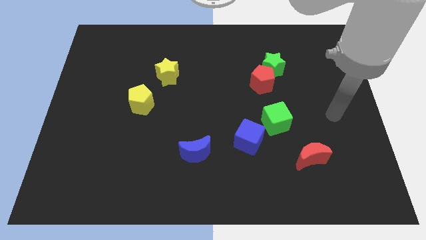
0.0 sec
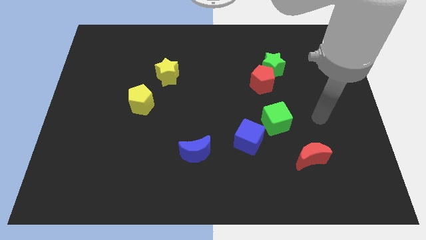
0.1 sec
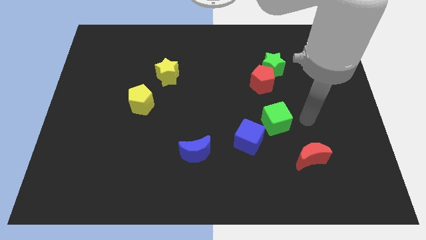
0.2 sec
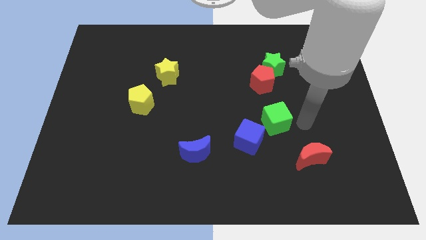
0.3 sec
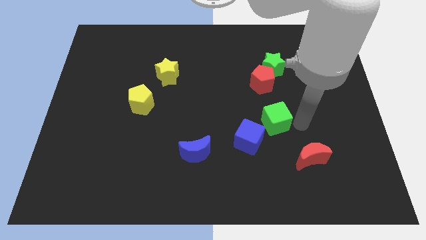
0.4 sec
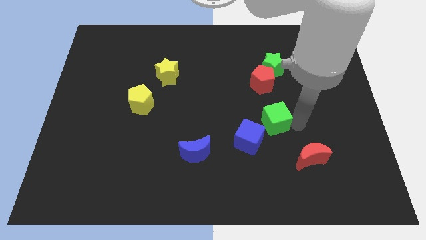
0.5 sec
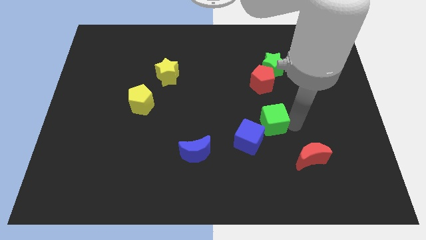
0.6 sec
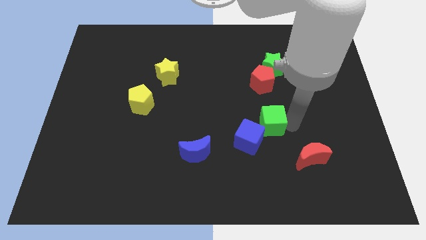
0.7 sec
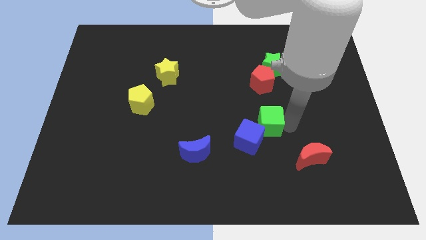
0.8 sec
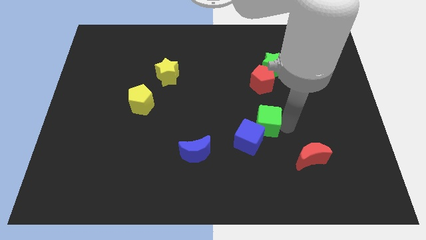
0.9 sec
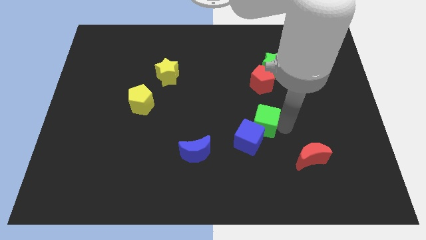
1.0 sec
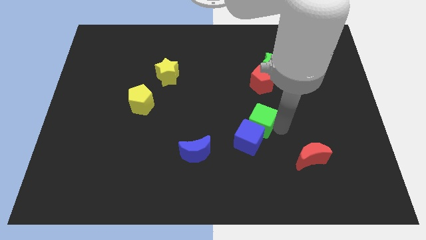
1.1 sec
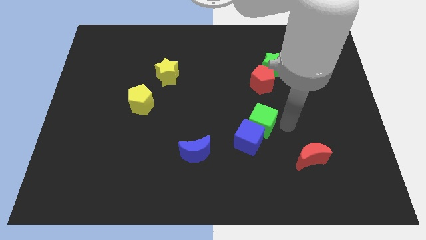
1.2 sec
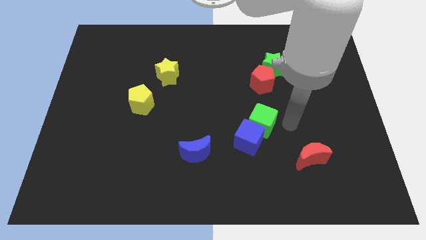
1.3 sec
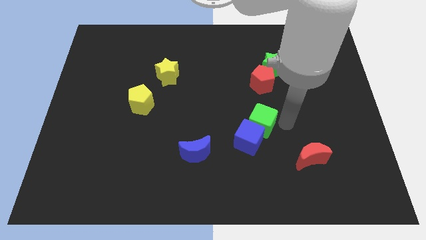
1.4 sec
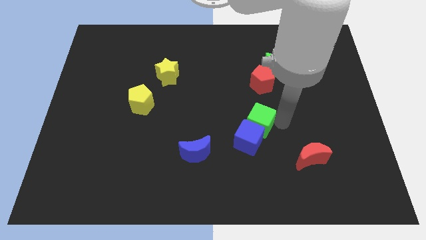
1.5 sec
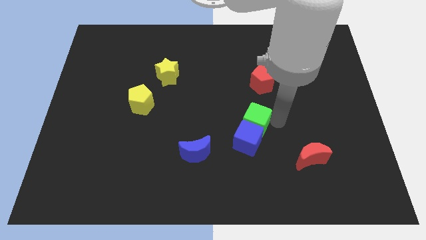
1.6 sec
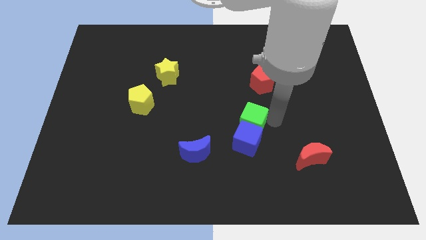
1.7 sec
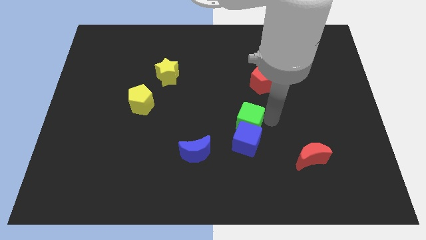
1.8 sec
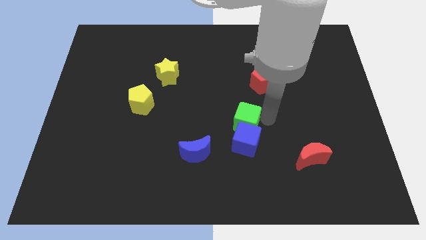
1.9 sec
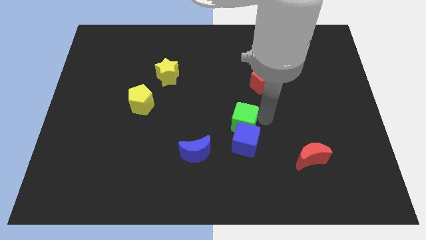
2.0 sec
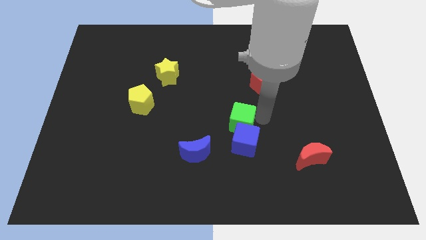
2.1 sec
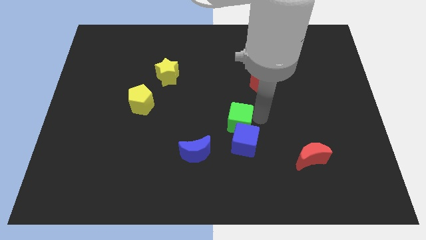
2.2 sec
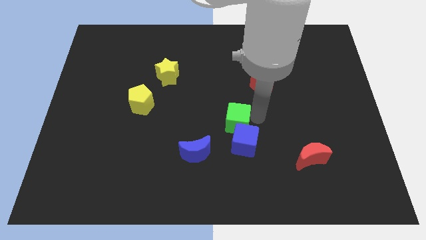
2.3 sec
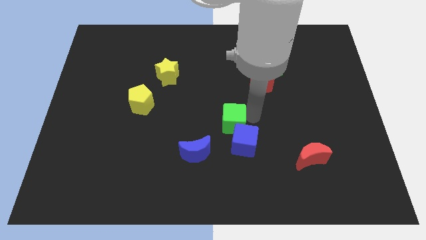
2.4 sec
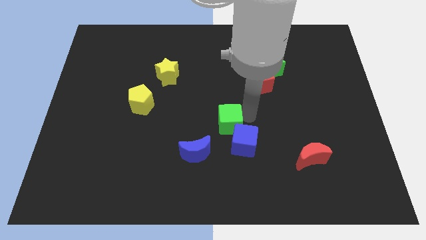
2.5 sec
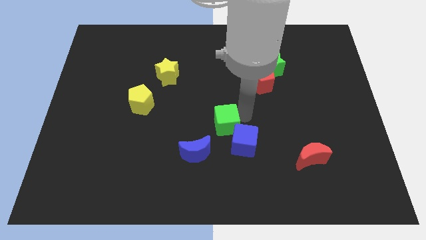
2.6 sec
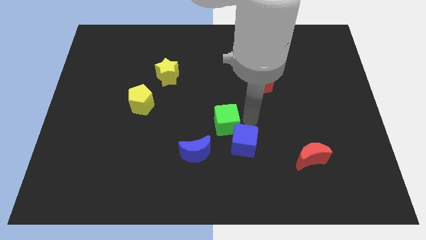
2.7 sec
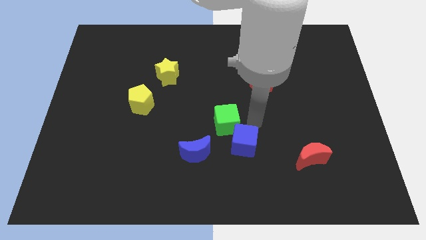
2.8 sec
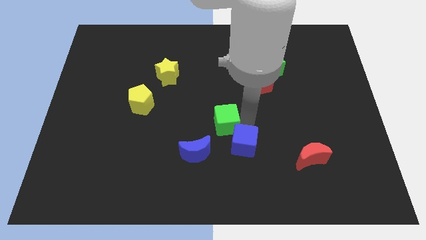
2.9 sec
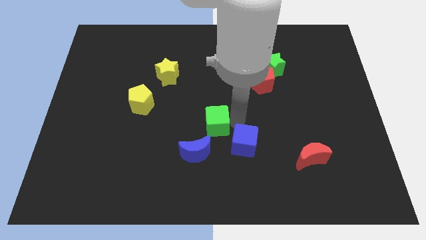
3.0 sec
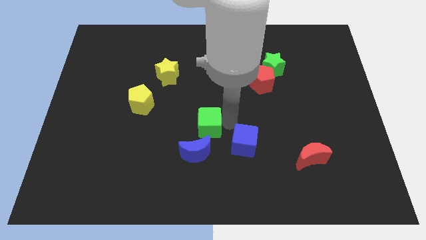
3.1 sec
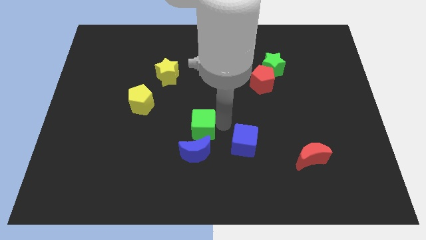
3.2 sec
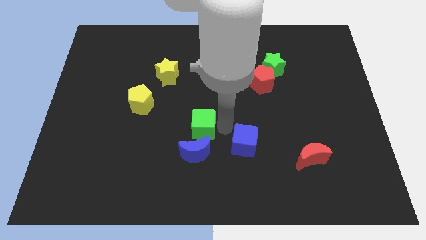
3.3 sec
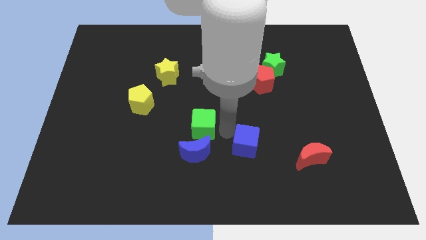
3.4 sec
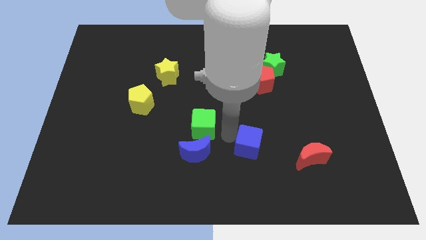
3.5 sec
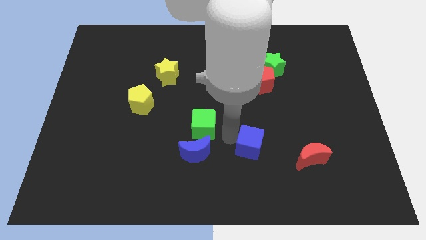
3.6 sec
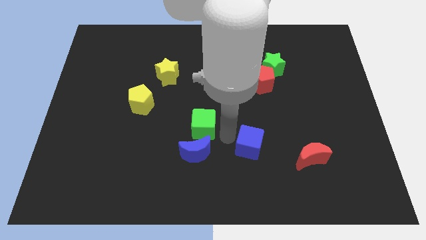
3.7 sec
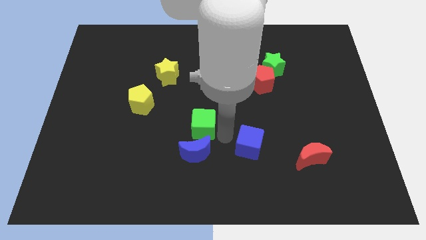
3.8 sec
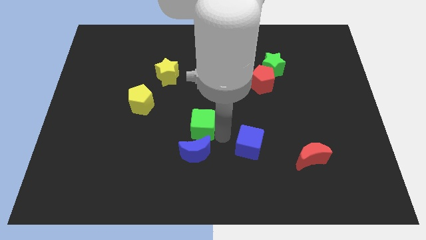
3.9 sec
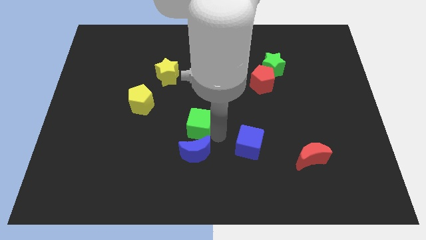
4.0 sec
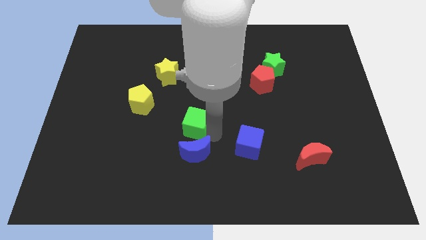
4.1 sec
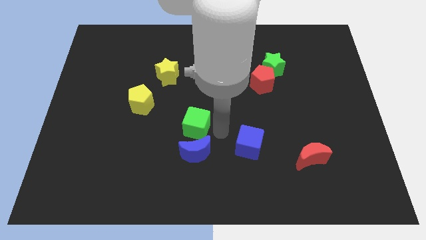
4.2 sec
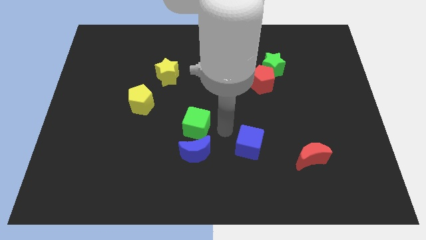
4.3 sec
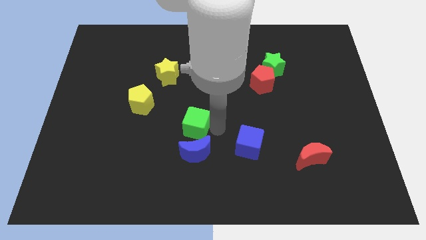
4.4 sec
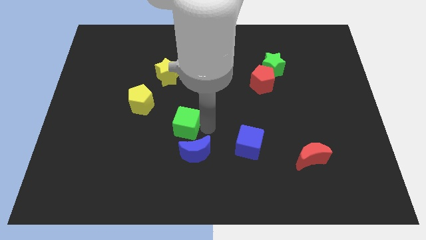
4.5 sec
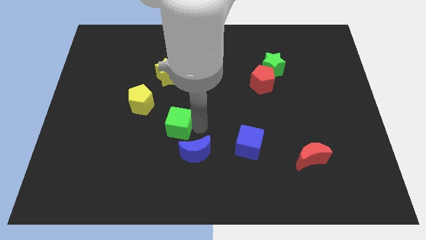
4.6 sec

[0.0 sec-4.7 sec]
move the green cube diagonally down and to the right of the yellow pentagon

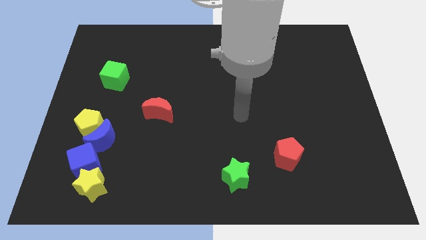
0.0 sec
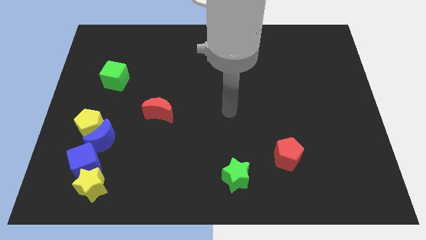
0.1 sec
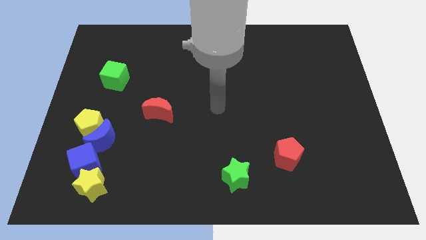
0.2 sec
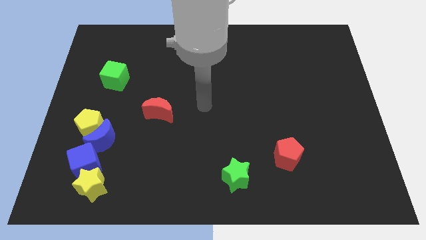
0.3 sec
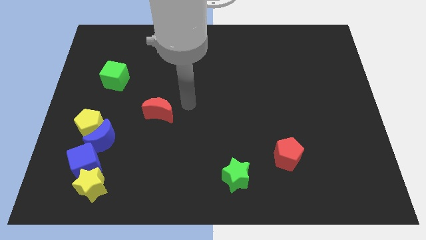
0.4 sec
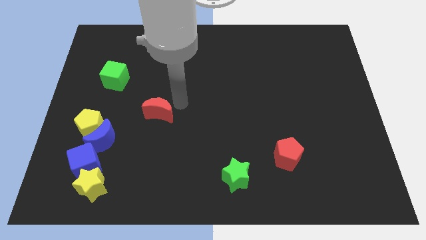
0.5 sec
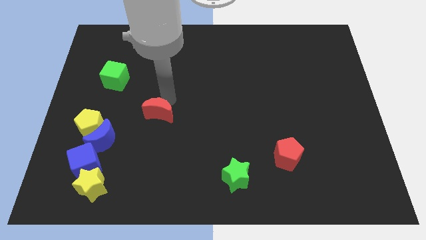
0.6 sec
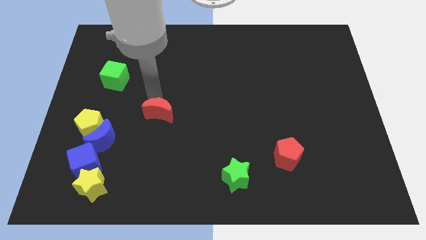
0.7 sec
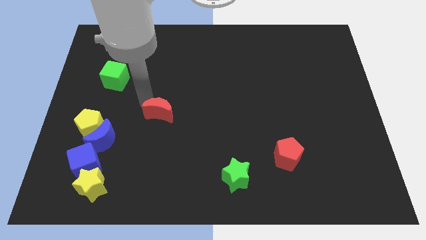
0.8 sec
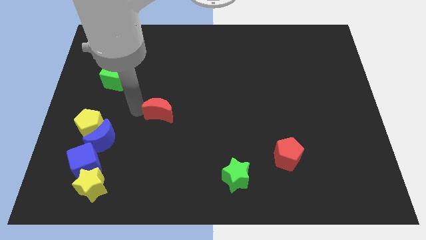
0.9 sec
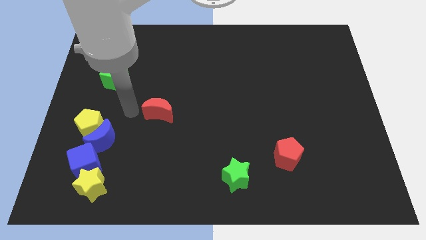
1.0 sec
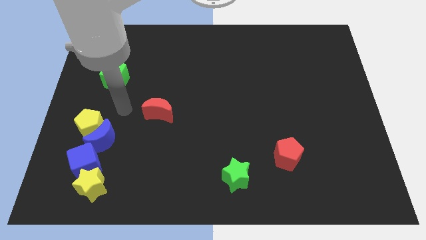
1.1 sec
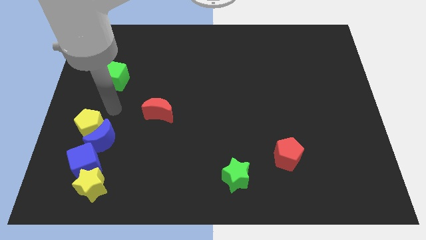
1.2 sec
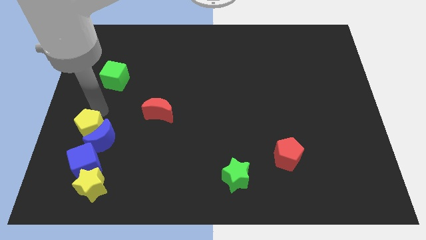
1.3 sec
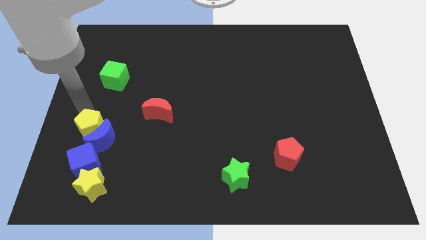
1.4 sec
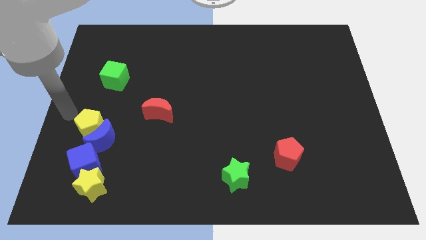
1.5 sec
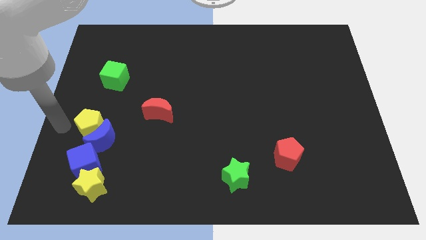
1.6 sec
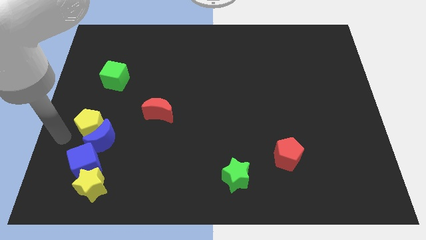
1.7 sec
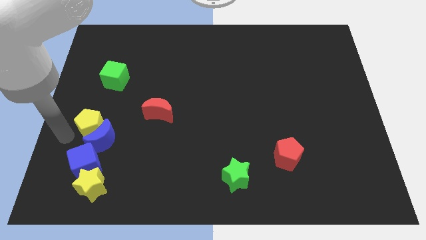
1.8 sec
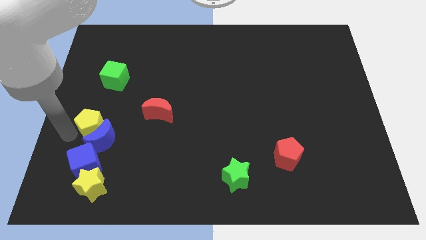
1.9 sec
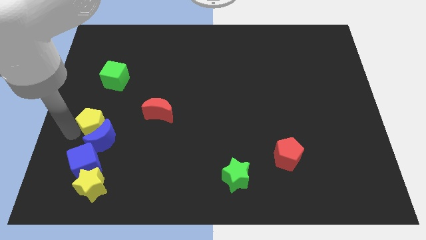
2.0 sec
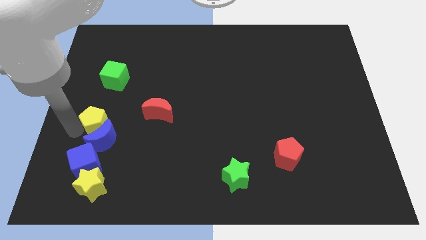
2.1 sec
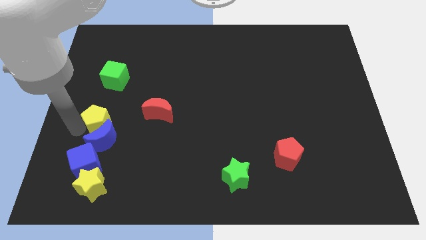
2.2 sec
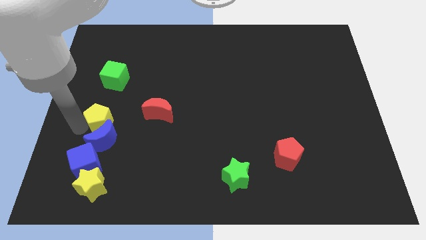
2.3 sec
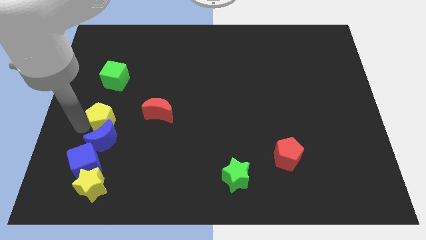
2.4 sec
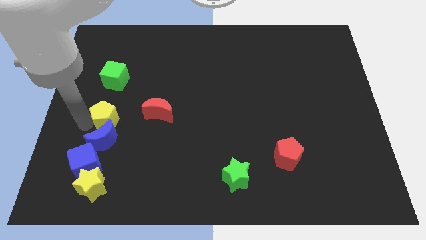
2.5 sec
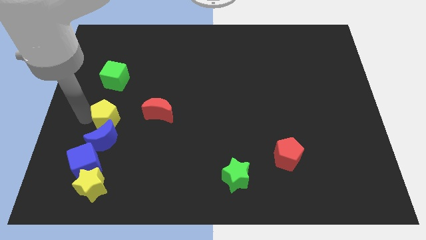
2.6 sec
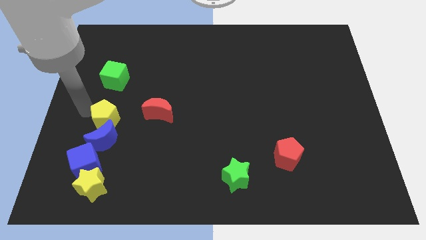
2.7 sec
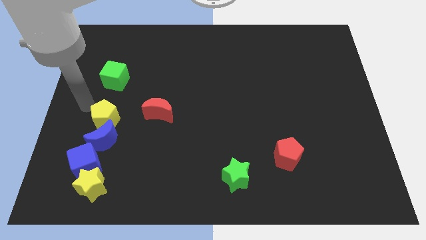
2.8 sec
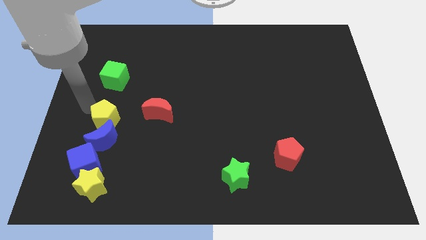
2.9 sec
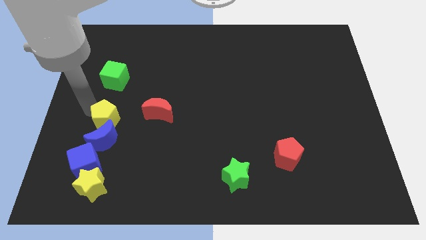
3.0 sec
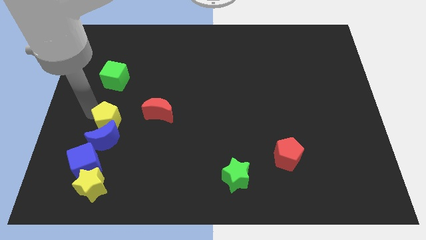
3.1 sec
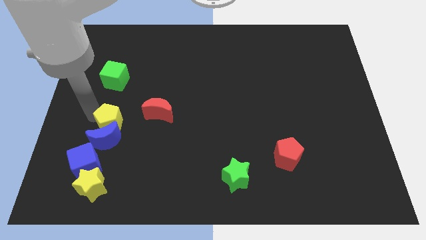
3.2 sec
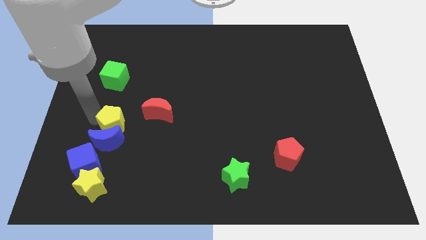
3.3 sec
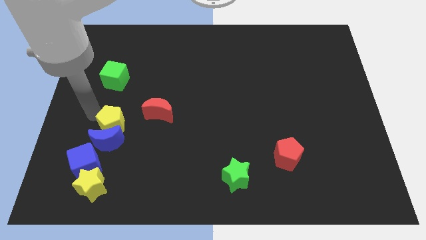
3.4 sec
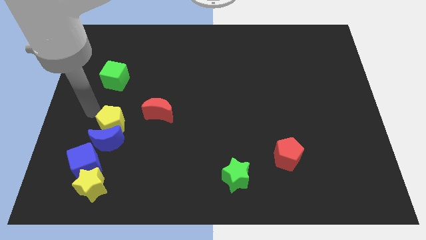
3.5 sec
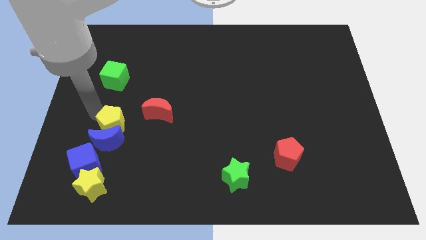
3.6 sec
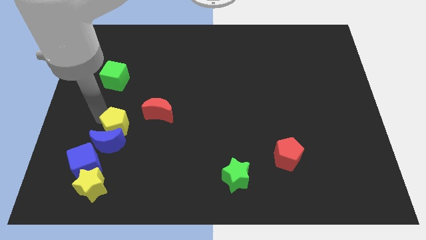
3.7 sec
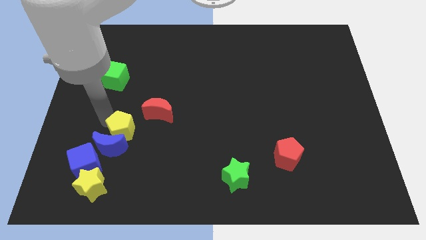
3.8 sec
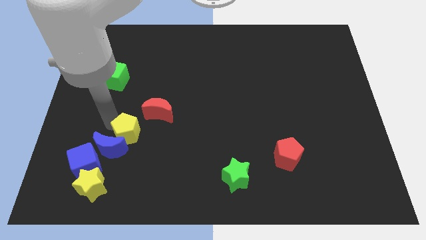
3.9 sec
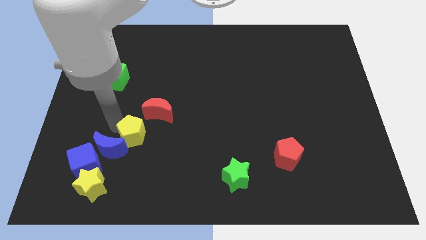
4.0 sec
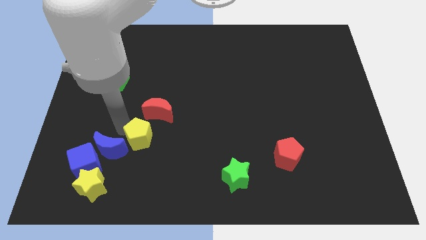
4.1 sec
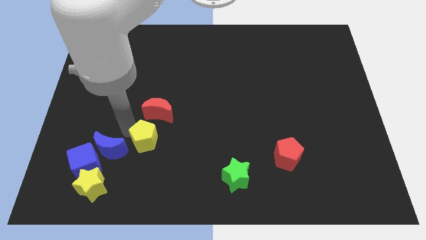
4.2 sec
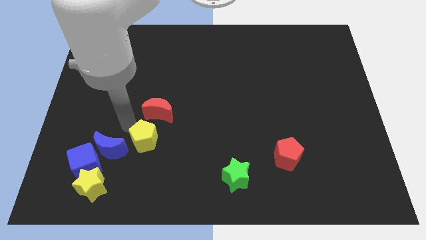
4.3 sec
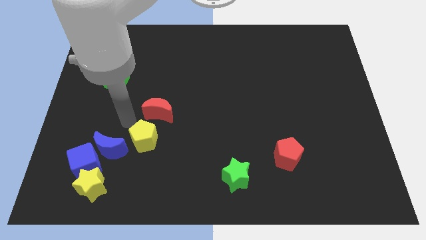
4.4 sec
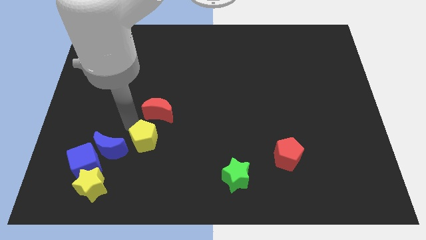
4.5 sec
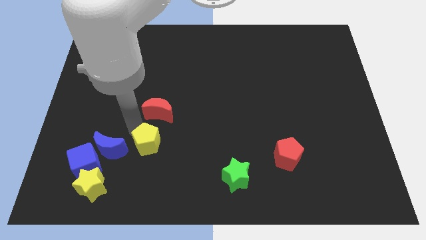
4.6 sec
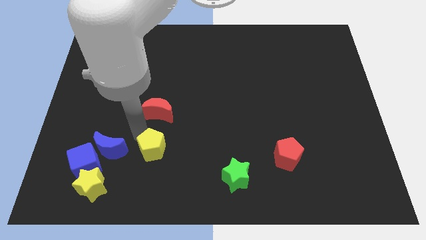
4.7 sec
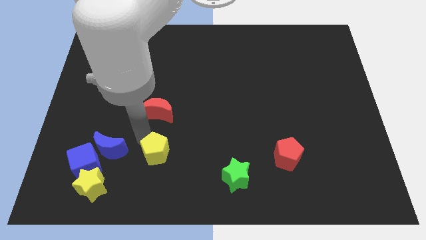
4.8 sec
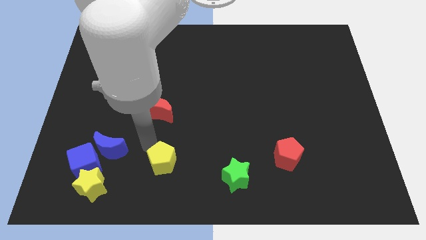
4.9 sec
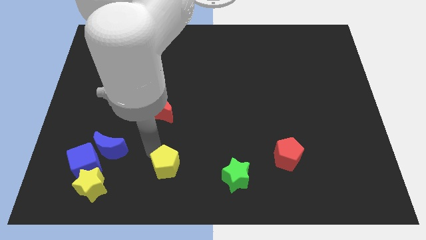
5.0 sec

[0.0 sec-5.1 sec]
slide the yellow pentagon to the left of the green star
